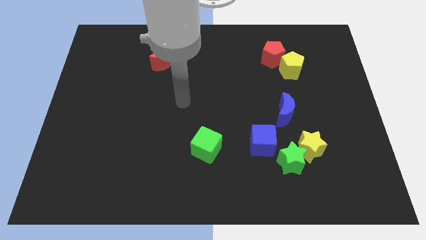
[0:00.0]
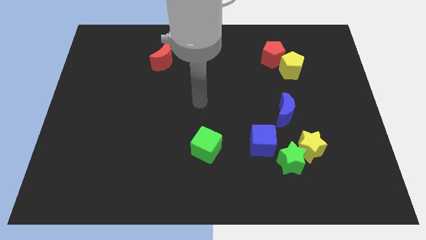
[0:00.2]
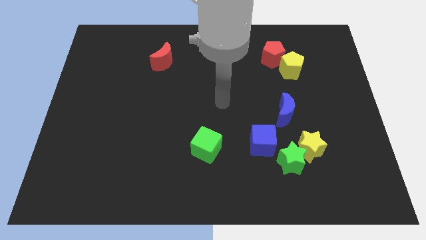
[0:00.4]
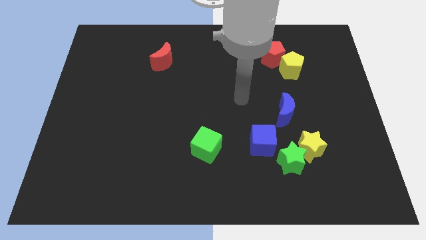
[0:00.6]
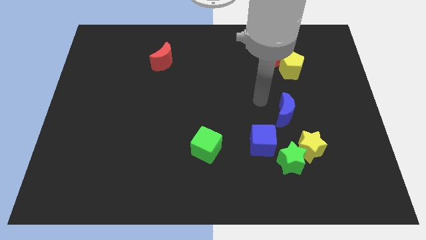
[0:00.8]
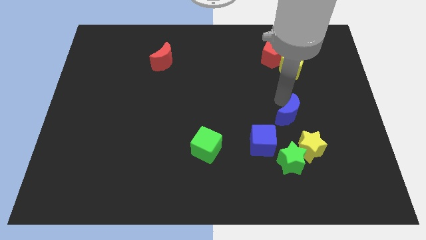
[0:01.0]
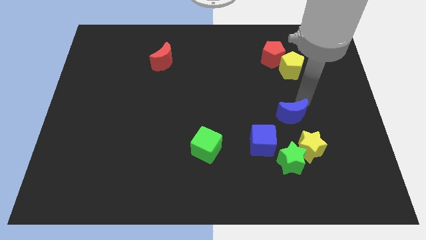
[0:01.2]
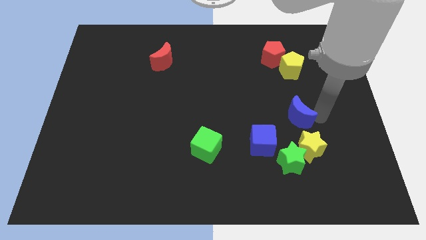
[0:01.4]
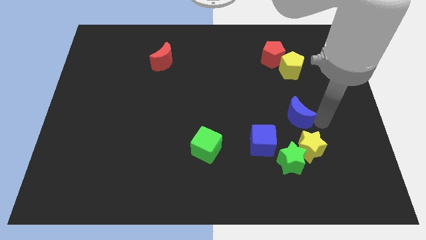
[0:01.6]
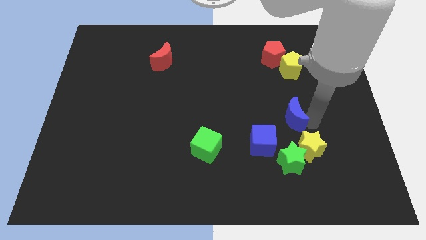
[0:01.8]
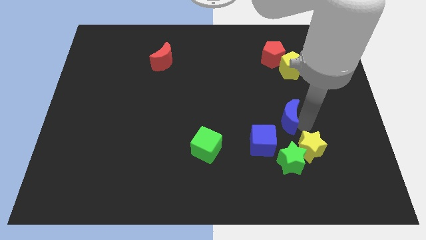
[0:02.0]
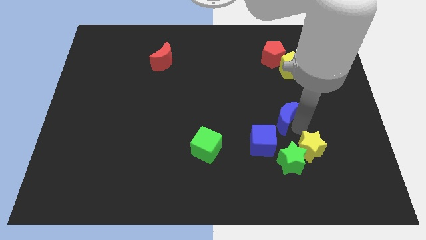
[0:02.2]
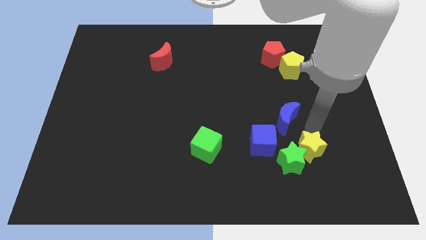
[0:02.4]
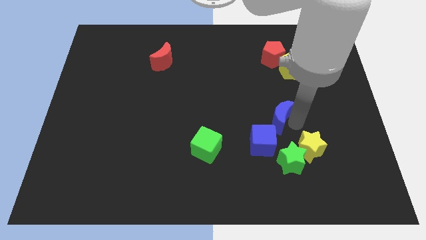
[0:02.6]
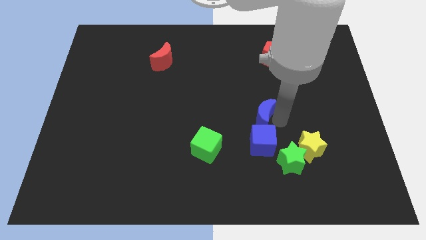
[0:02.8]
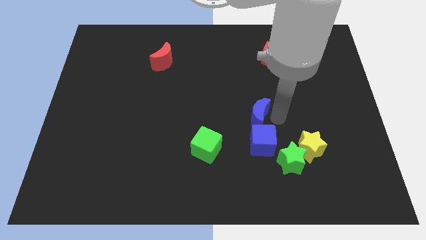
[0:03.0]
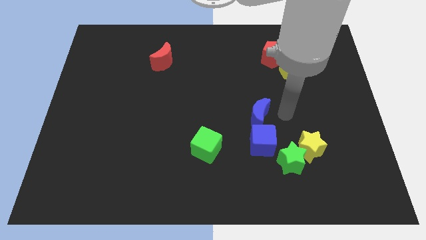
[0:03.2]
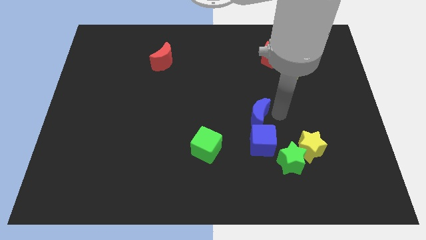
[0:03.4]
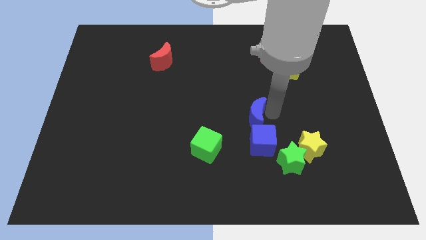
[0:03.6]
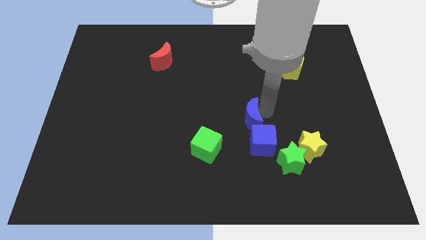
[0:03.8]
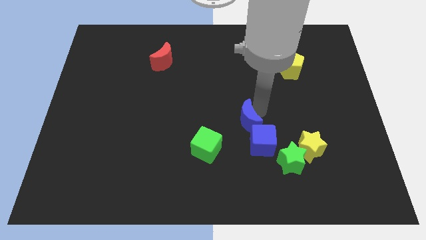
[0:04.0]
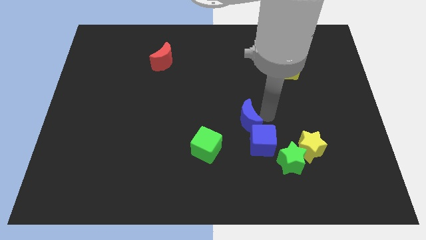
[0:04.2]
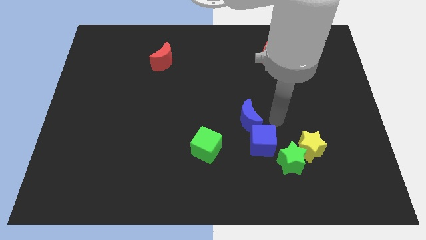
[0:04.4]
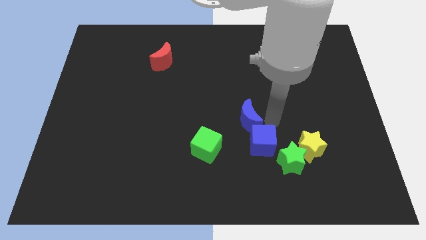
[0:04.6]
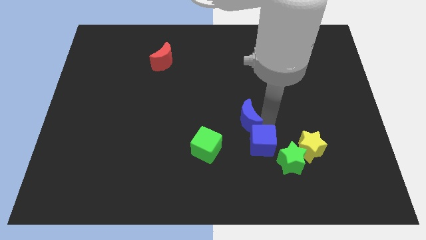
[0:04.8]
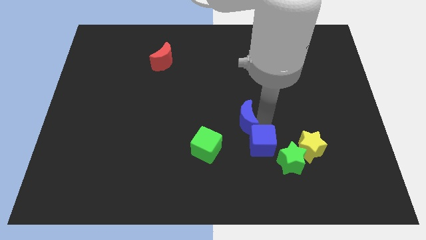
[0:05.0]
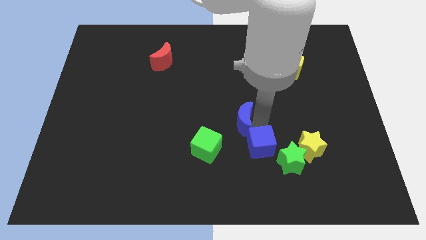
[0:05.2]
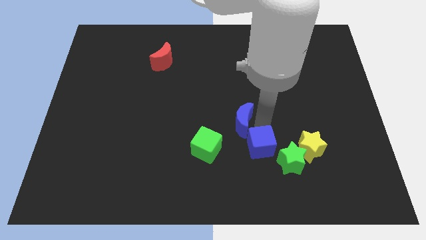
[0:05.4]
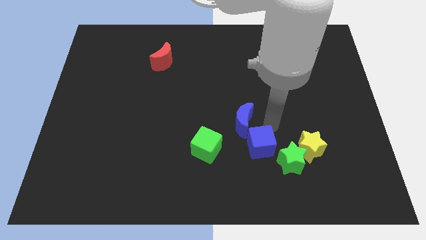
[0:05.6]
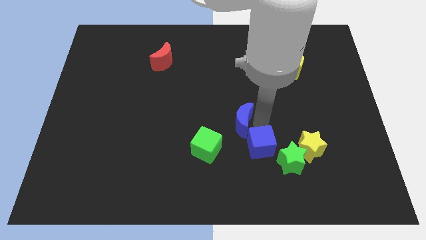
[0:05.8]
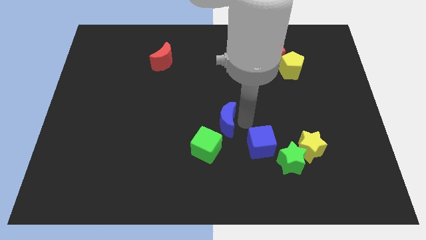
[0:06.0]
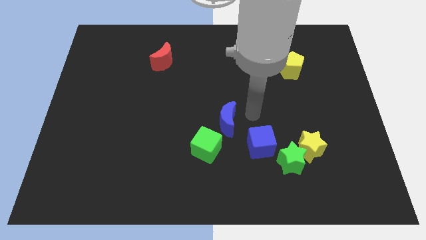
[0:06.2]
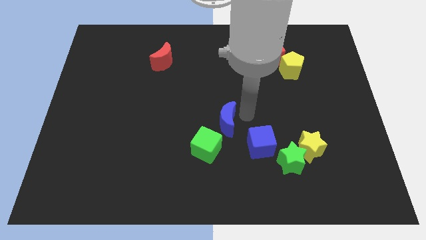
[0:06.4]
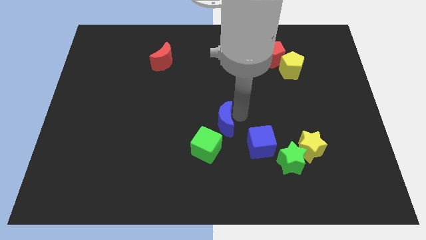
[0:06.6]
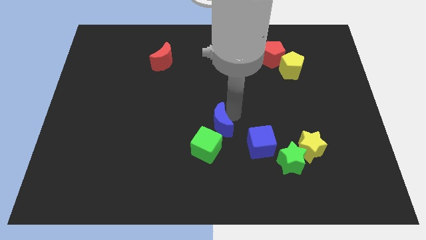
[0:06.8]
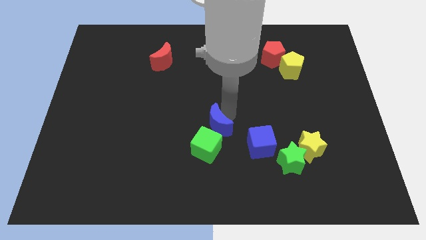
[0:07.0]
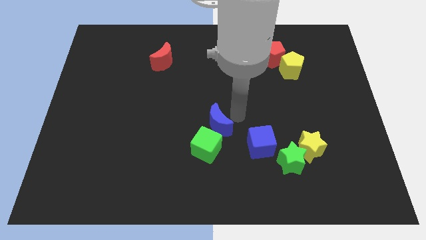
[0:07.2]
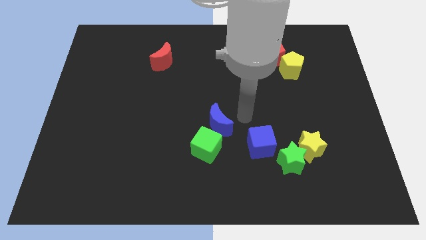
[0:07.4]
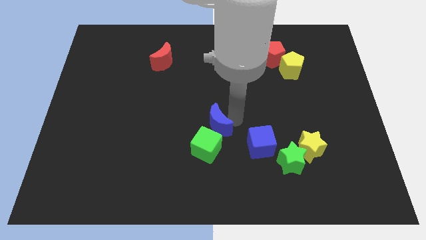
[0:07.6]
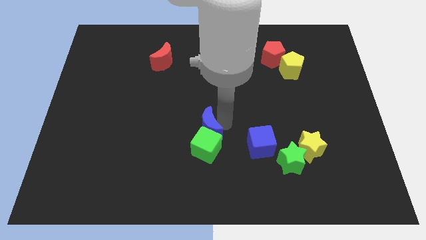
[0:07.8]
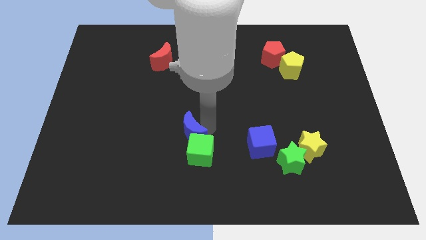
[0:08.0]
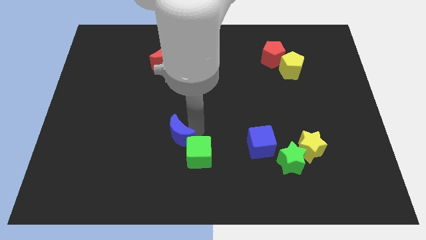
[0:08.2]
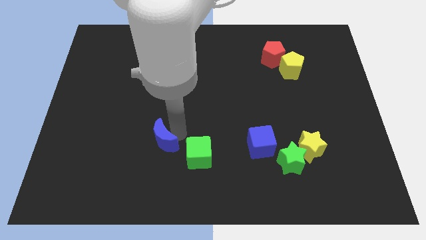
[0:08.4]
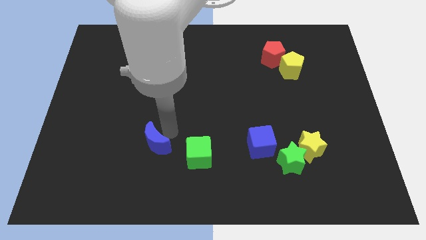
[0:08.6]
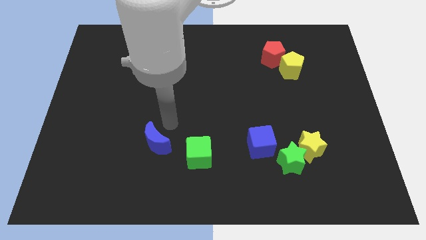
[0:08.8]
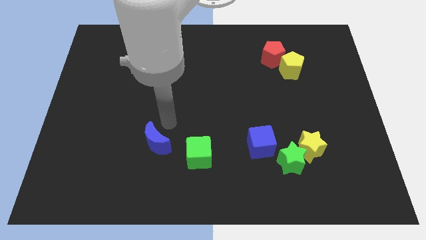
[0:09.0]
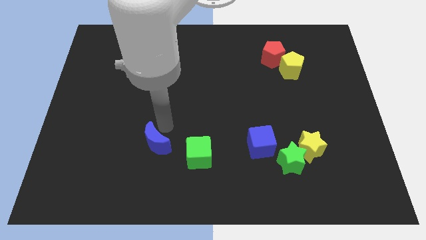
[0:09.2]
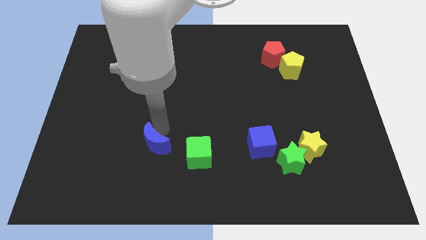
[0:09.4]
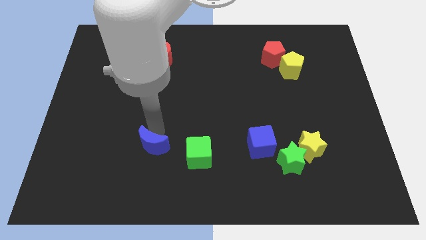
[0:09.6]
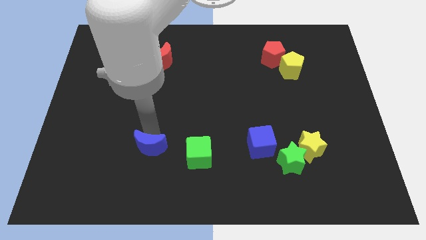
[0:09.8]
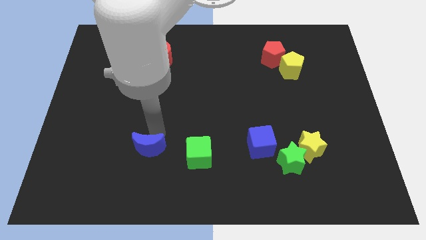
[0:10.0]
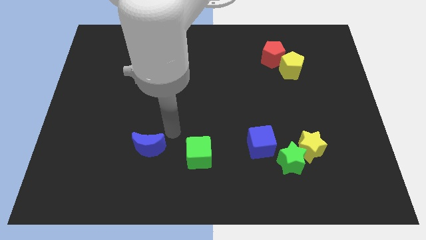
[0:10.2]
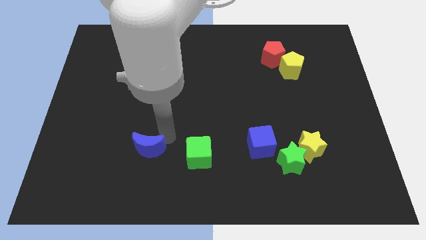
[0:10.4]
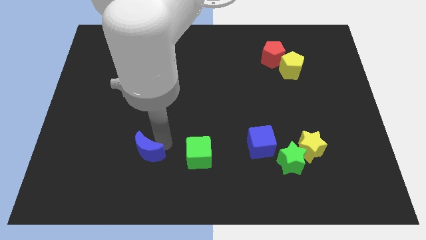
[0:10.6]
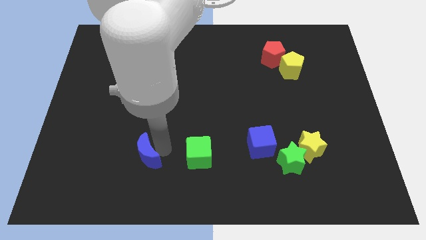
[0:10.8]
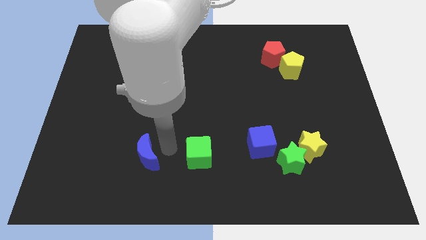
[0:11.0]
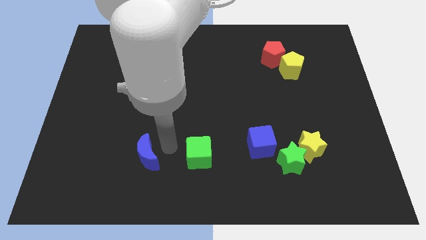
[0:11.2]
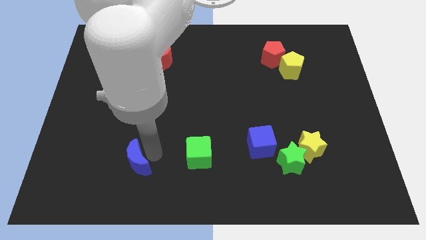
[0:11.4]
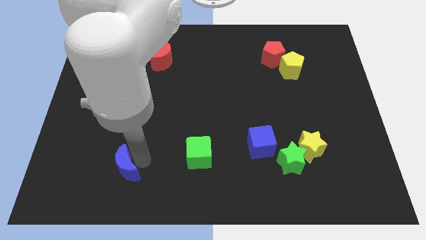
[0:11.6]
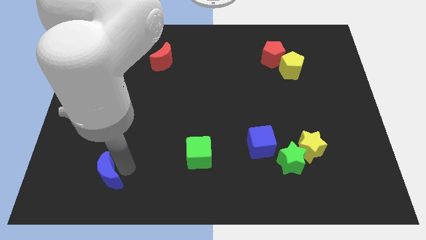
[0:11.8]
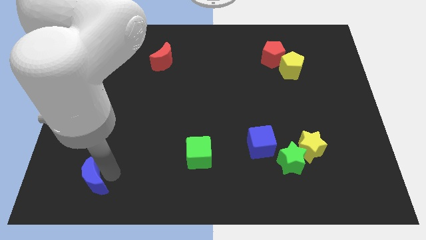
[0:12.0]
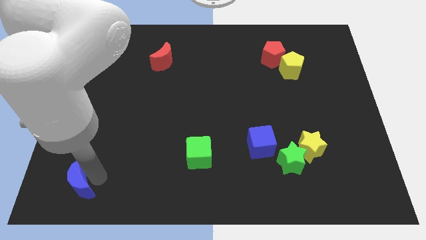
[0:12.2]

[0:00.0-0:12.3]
push the blue moon to the lower left corner
